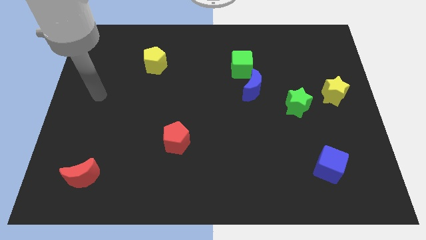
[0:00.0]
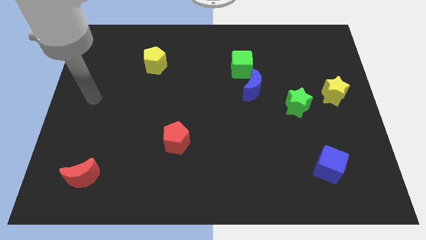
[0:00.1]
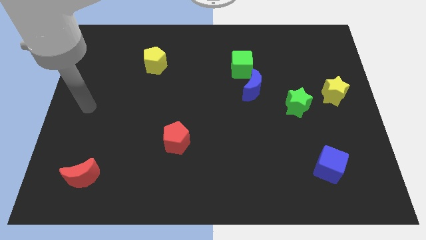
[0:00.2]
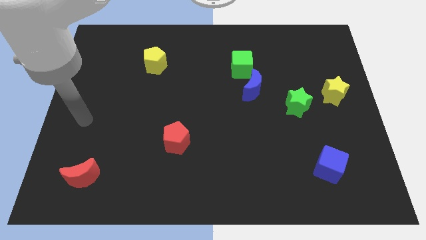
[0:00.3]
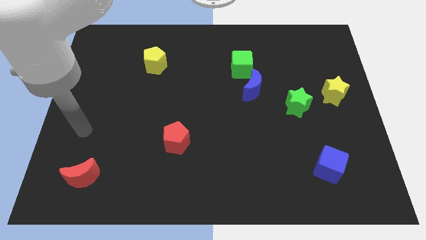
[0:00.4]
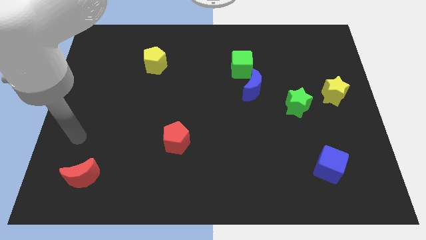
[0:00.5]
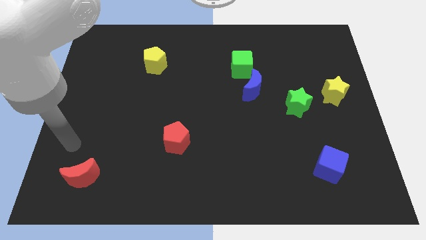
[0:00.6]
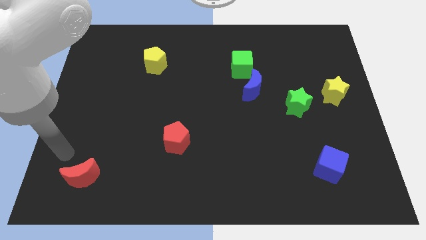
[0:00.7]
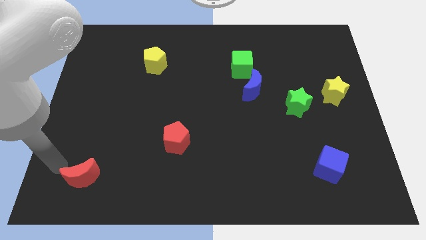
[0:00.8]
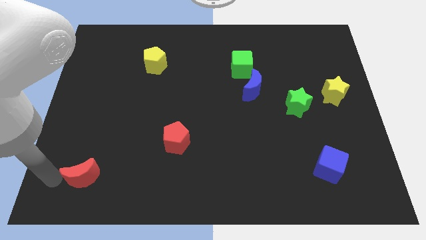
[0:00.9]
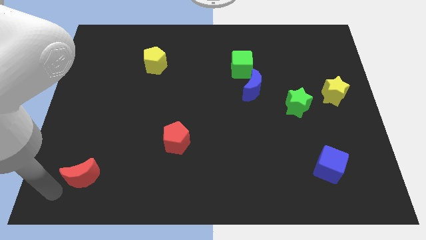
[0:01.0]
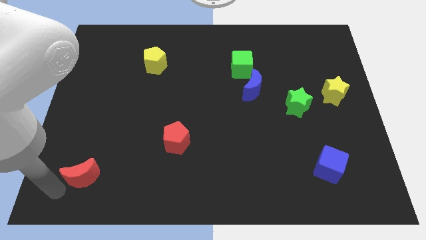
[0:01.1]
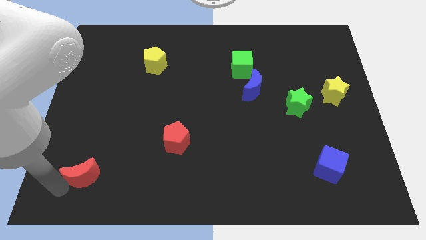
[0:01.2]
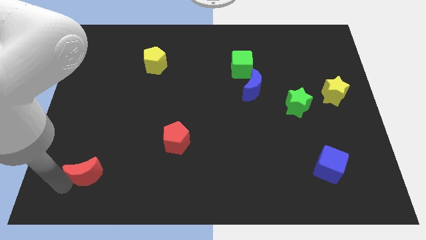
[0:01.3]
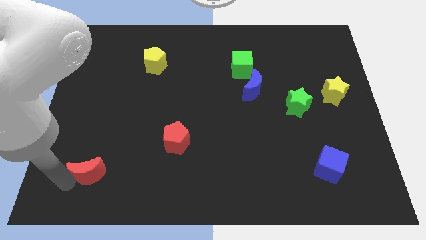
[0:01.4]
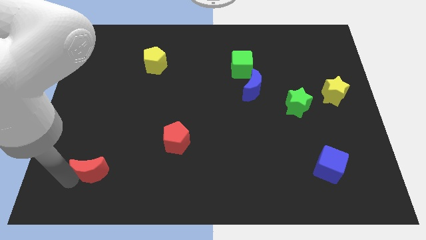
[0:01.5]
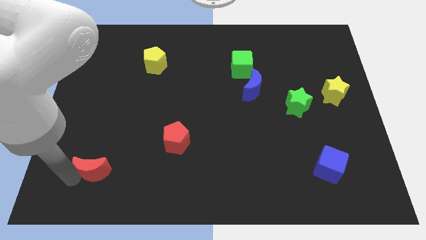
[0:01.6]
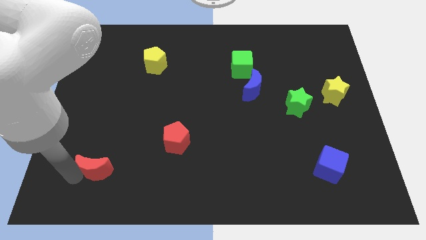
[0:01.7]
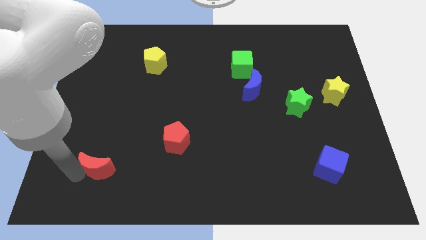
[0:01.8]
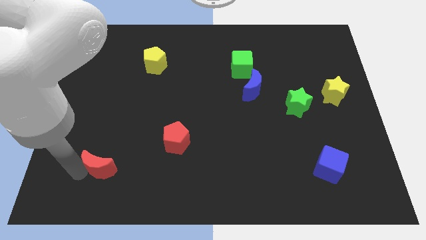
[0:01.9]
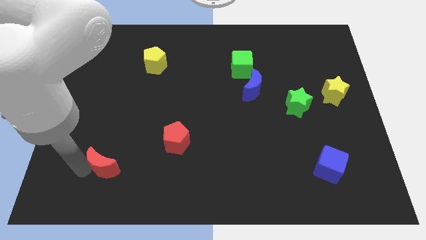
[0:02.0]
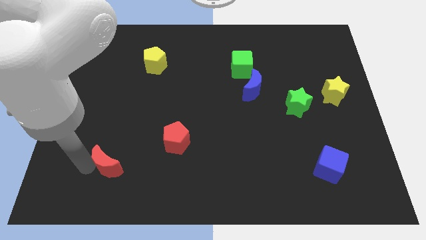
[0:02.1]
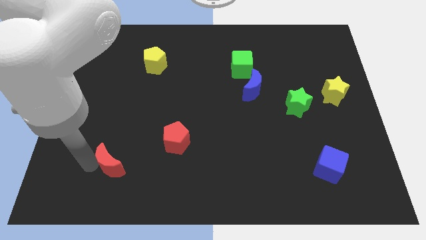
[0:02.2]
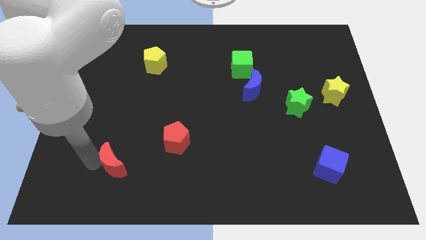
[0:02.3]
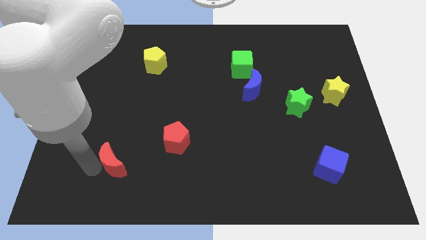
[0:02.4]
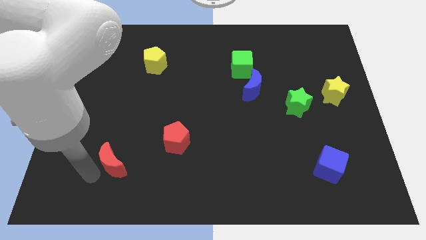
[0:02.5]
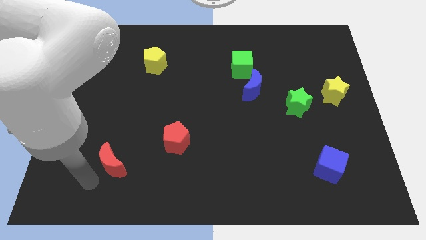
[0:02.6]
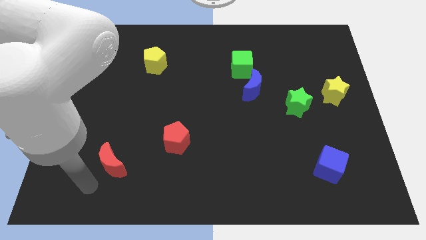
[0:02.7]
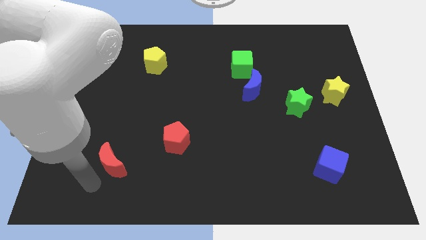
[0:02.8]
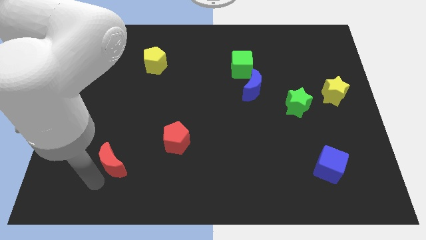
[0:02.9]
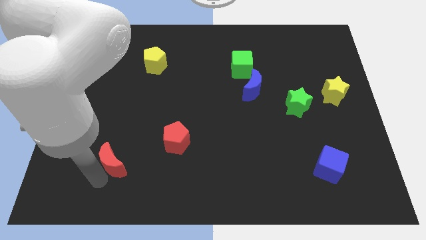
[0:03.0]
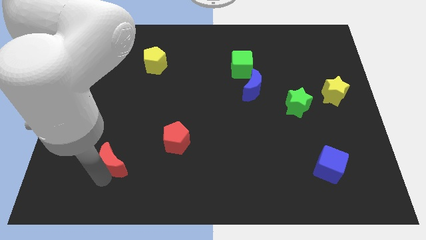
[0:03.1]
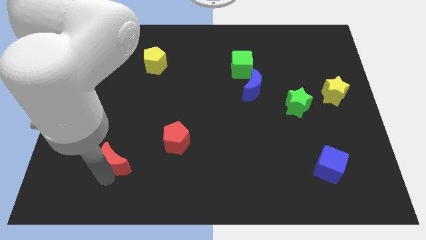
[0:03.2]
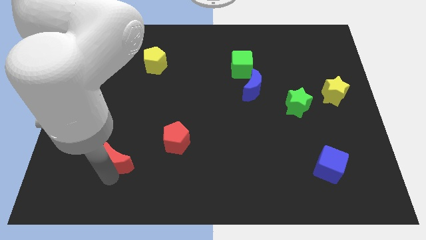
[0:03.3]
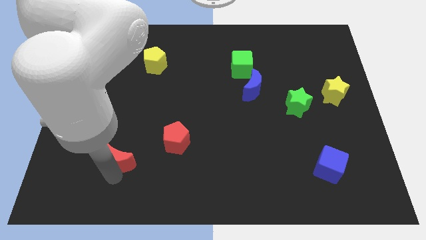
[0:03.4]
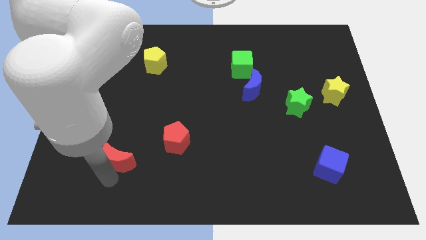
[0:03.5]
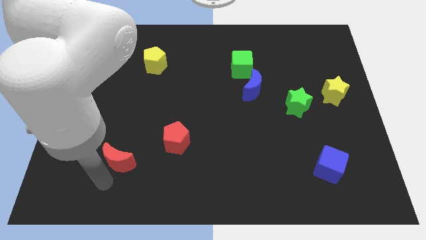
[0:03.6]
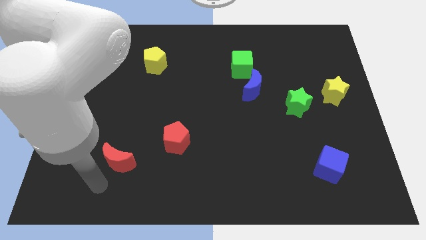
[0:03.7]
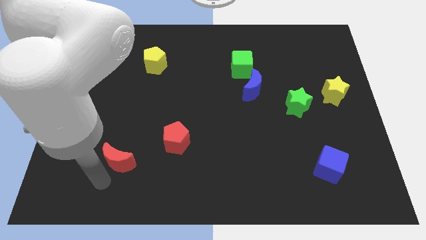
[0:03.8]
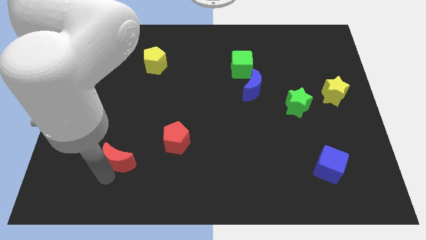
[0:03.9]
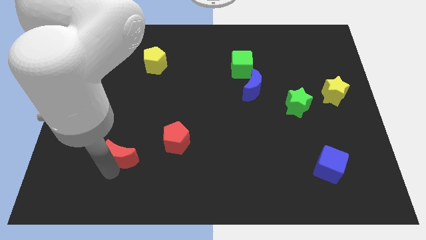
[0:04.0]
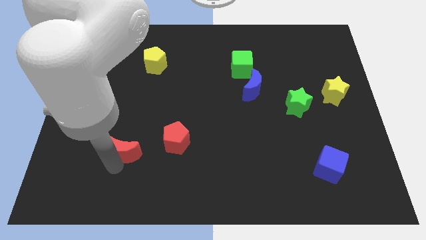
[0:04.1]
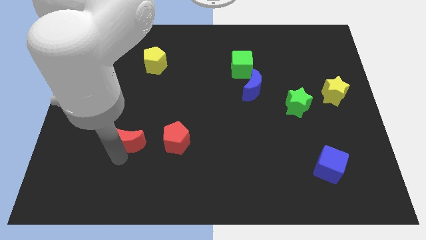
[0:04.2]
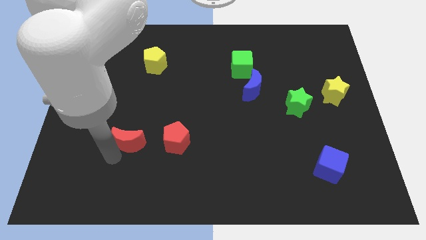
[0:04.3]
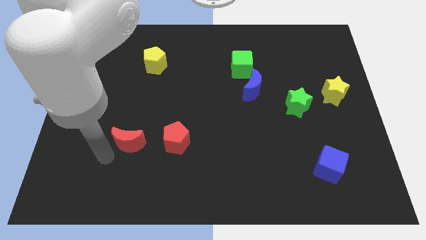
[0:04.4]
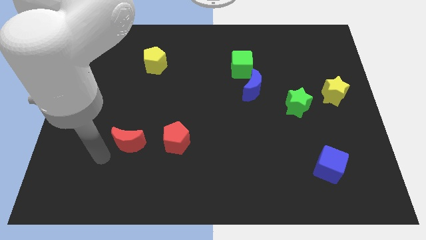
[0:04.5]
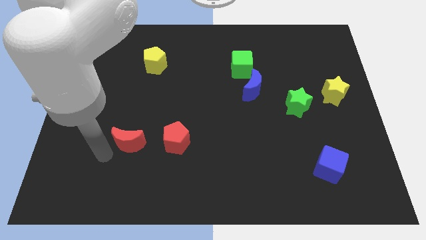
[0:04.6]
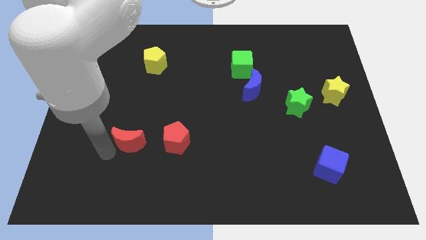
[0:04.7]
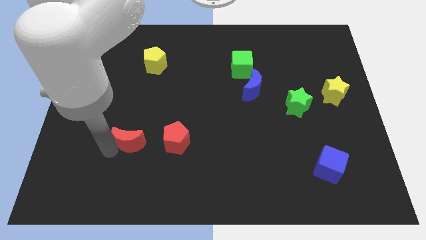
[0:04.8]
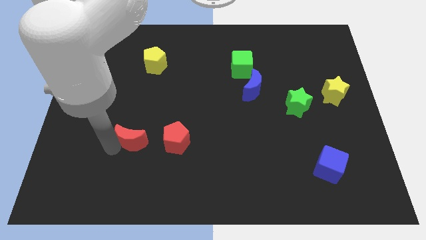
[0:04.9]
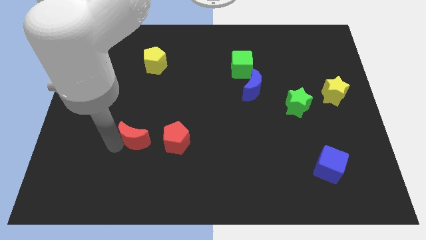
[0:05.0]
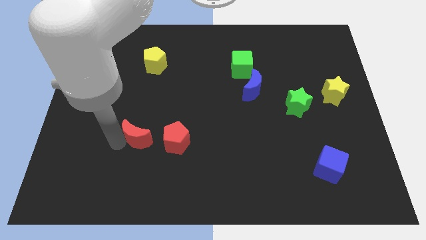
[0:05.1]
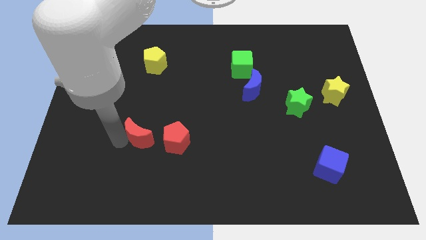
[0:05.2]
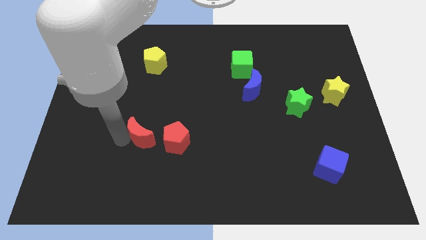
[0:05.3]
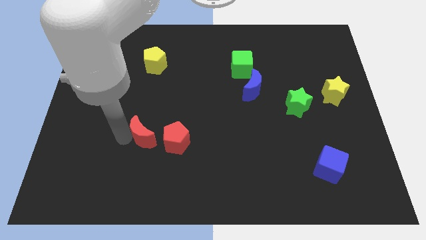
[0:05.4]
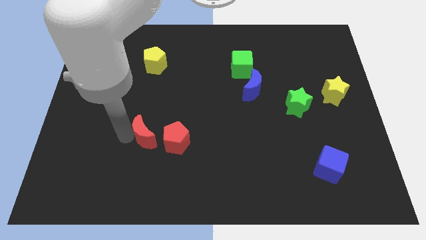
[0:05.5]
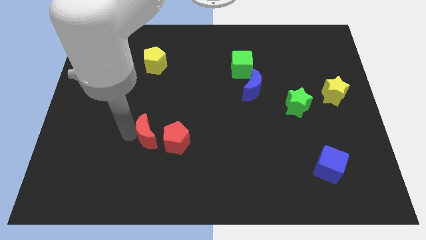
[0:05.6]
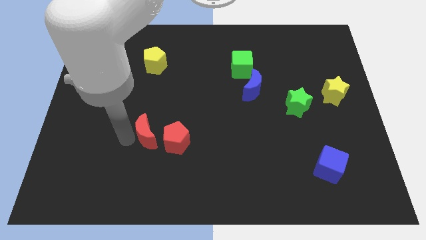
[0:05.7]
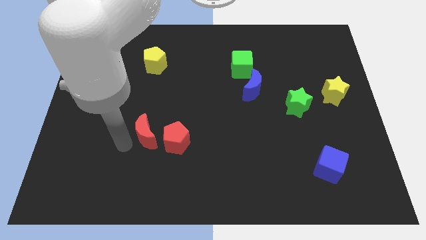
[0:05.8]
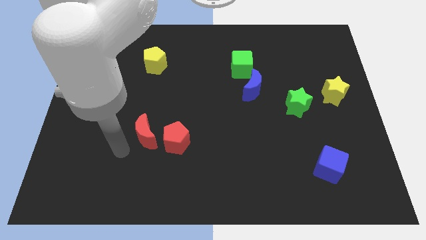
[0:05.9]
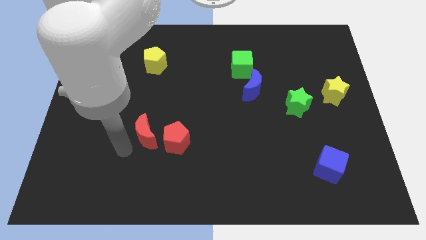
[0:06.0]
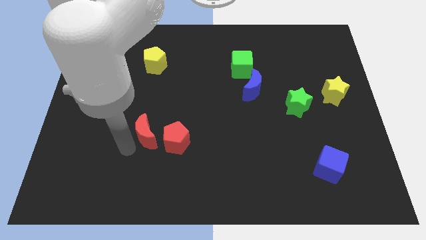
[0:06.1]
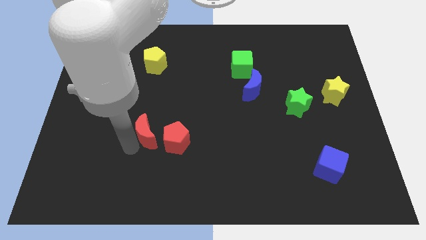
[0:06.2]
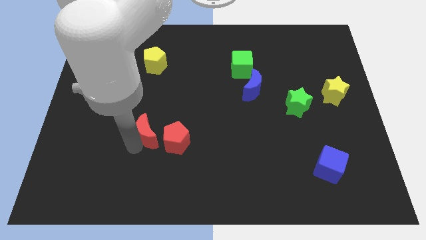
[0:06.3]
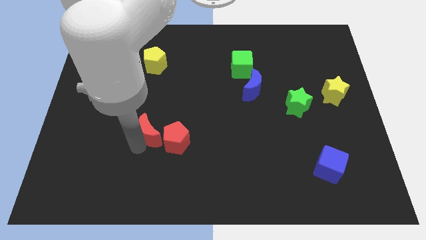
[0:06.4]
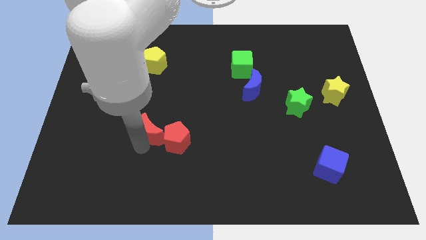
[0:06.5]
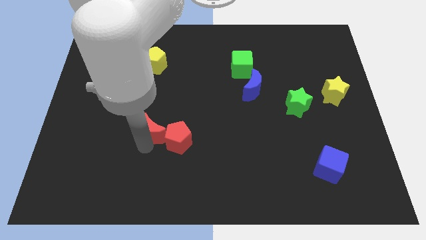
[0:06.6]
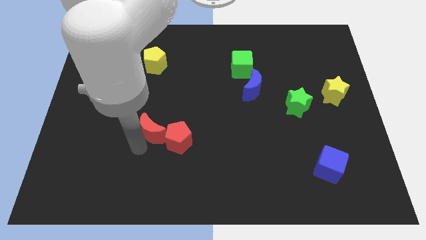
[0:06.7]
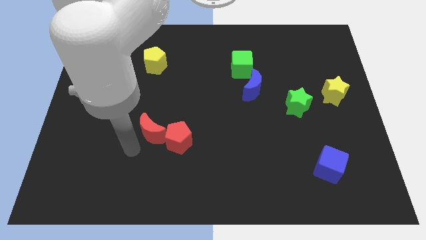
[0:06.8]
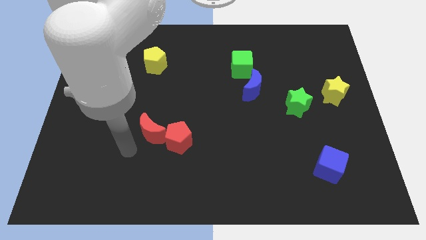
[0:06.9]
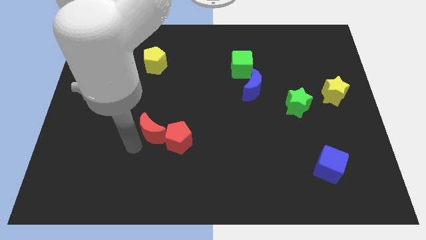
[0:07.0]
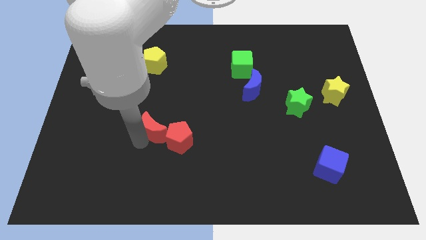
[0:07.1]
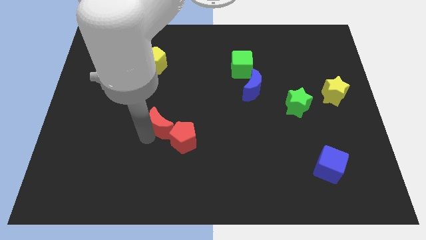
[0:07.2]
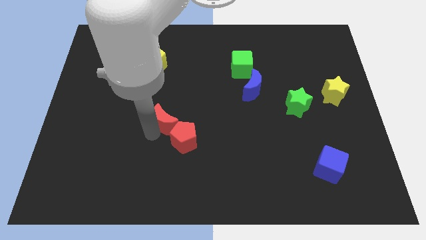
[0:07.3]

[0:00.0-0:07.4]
slide the red moon up and to the right diagonally

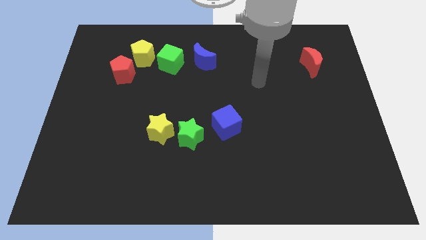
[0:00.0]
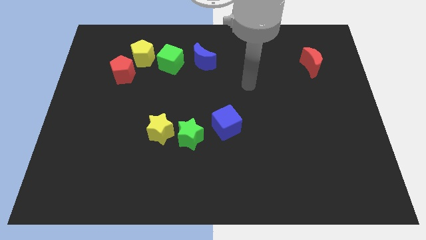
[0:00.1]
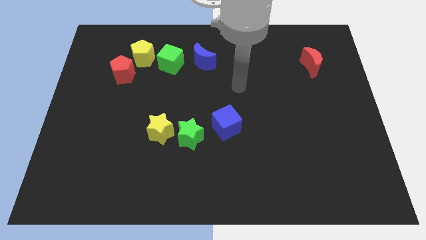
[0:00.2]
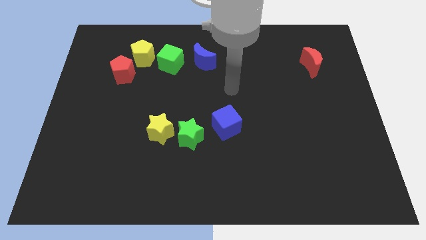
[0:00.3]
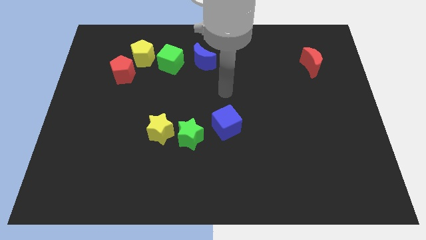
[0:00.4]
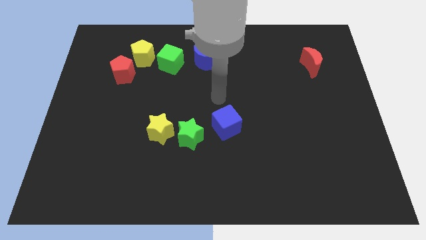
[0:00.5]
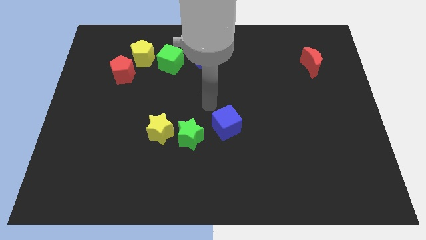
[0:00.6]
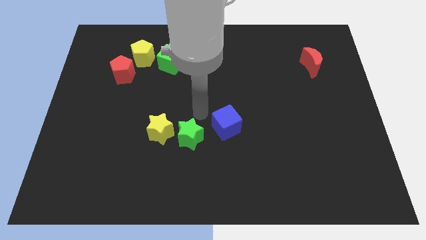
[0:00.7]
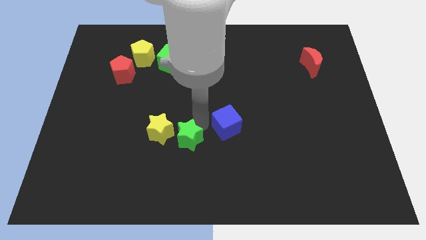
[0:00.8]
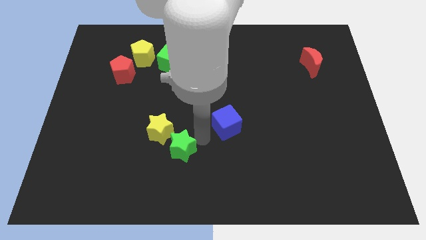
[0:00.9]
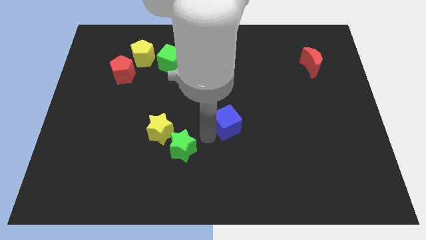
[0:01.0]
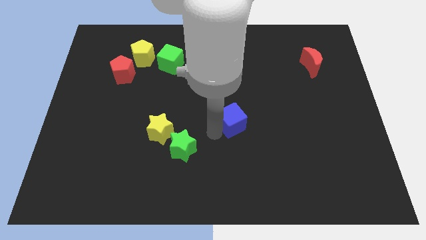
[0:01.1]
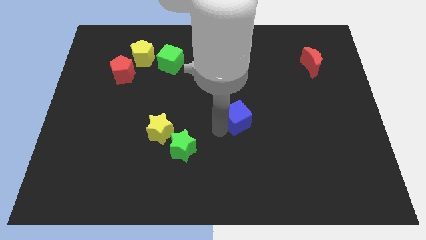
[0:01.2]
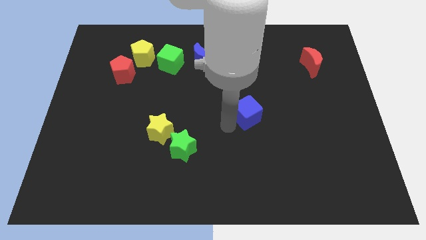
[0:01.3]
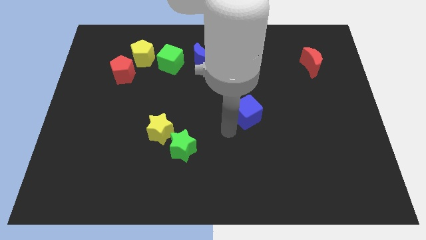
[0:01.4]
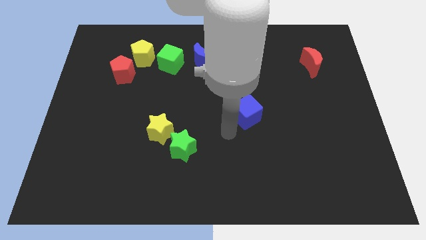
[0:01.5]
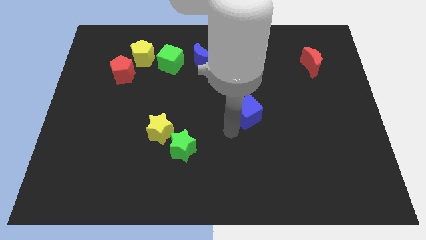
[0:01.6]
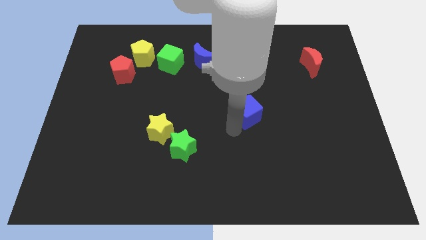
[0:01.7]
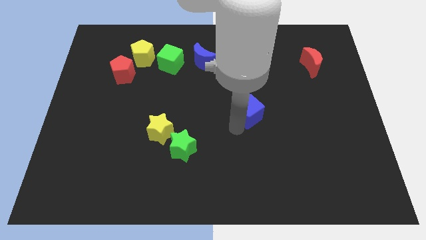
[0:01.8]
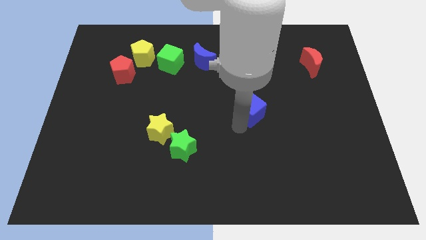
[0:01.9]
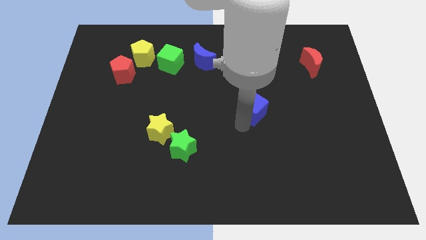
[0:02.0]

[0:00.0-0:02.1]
slide the blue cube diagonally up and right somewhat
